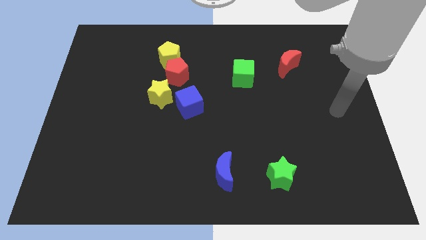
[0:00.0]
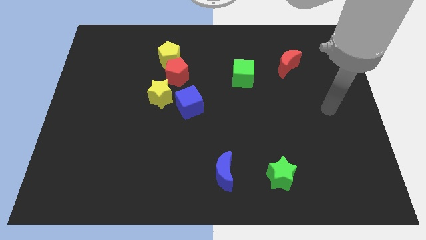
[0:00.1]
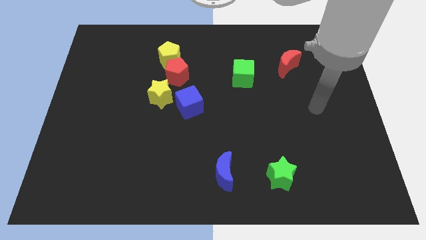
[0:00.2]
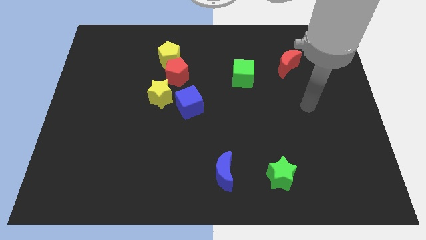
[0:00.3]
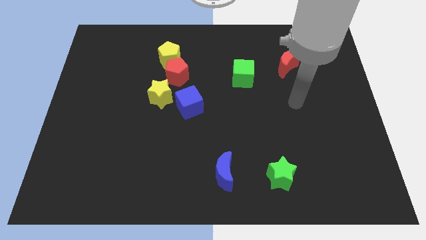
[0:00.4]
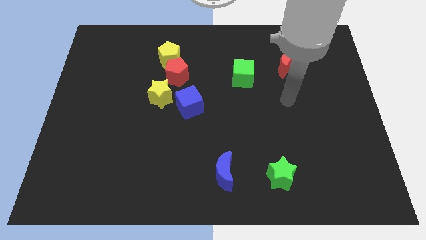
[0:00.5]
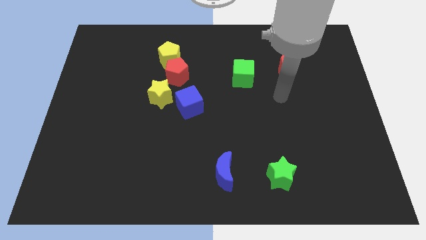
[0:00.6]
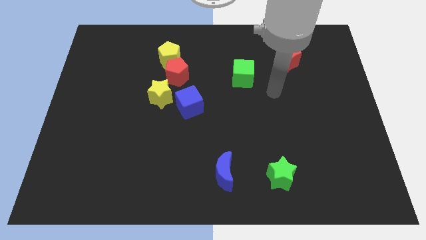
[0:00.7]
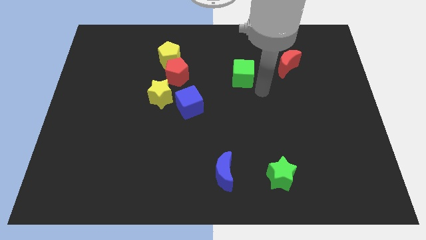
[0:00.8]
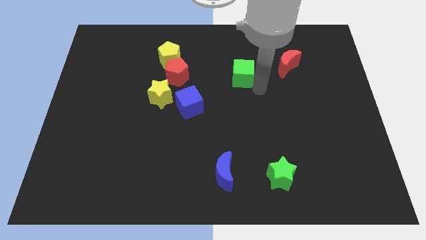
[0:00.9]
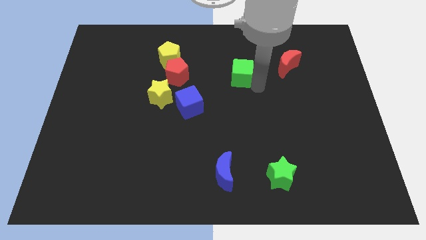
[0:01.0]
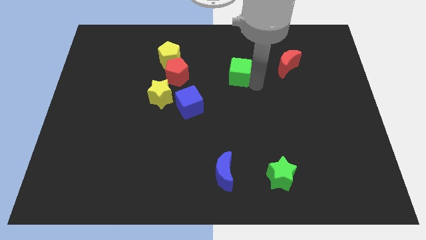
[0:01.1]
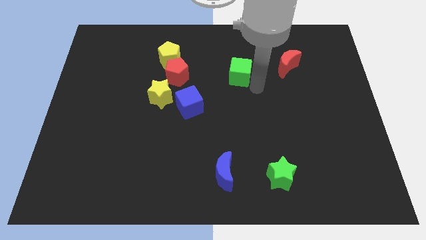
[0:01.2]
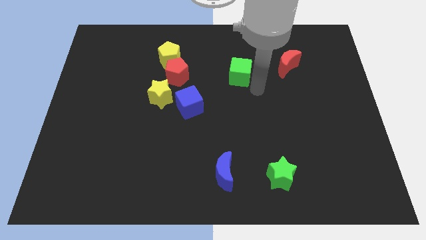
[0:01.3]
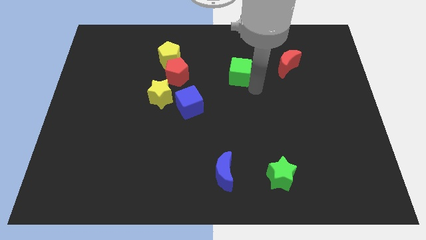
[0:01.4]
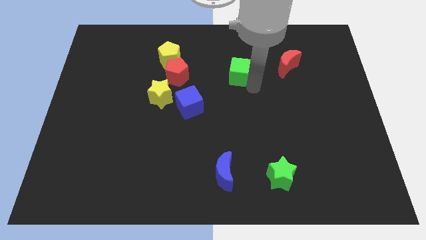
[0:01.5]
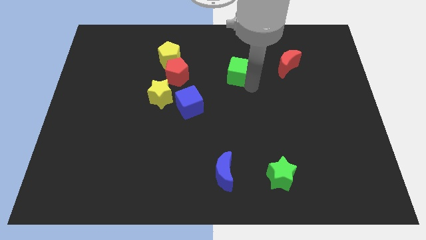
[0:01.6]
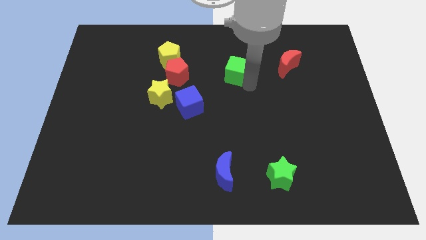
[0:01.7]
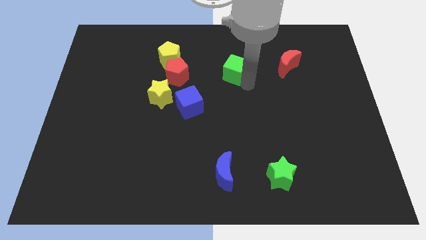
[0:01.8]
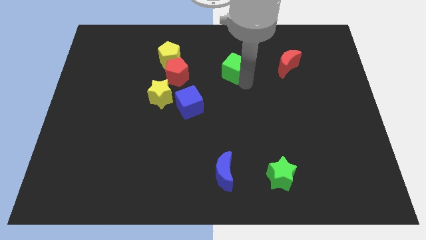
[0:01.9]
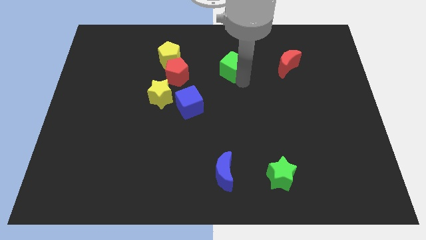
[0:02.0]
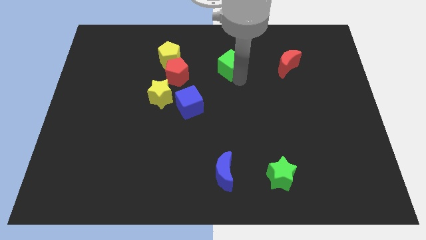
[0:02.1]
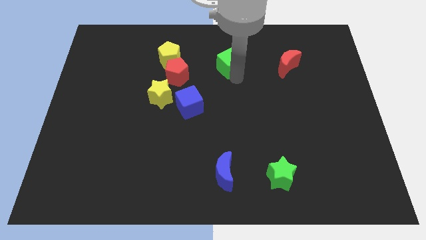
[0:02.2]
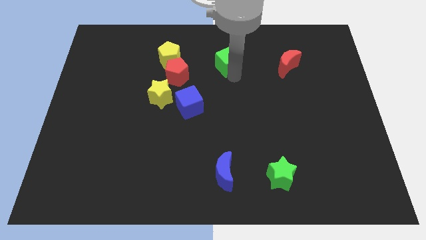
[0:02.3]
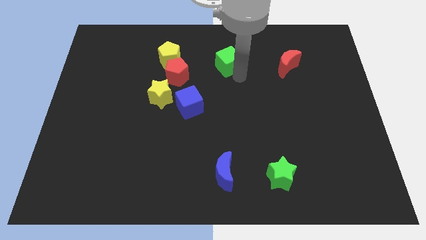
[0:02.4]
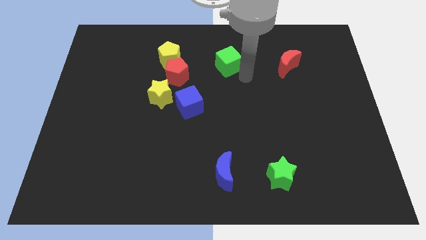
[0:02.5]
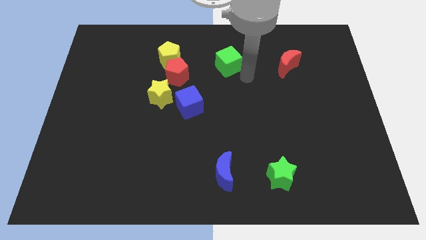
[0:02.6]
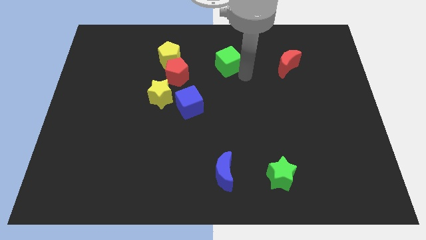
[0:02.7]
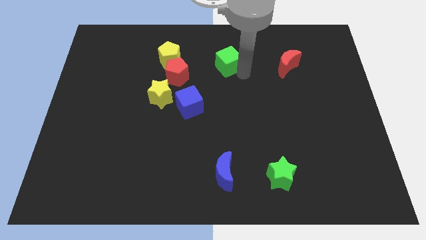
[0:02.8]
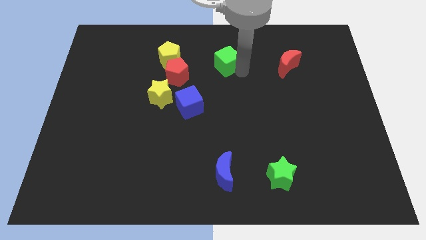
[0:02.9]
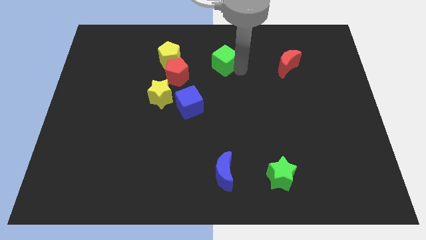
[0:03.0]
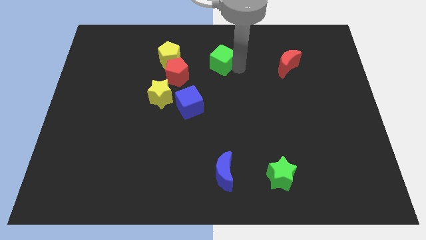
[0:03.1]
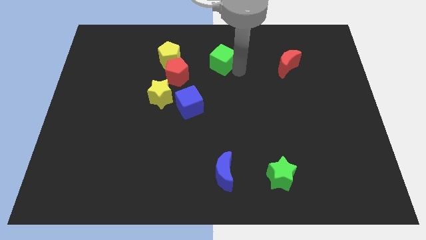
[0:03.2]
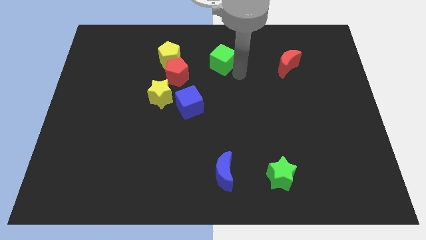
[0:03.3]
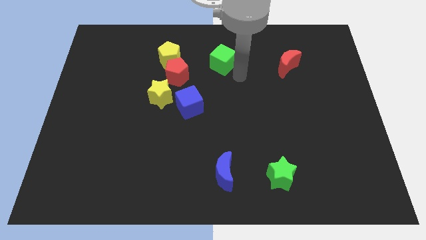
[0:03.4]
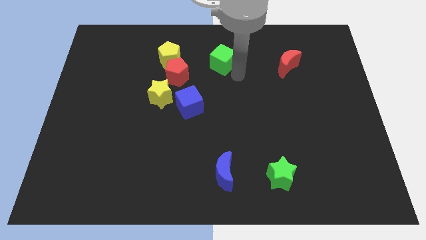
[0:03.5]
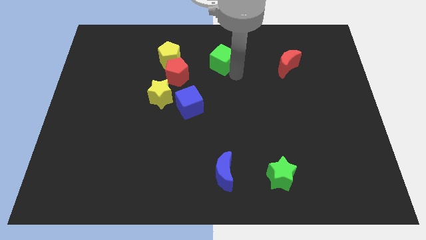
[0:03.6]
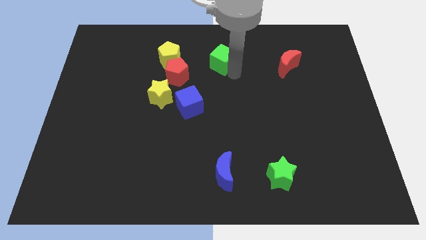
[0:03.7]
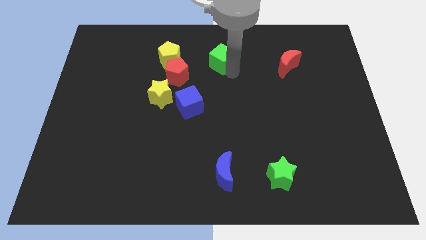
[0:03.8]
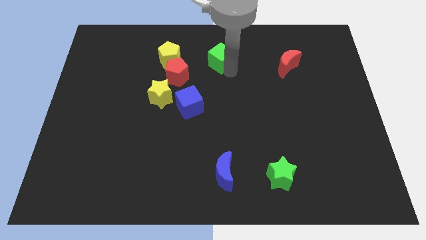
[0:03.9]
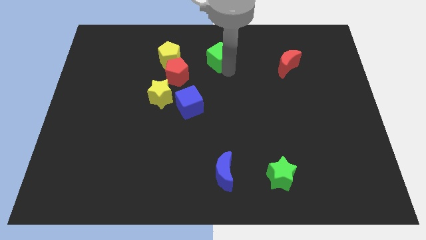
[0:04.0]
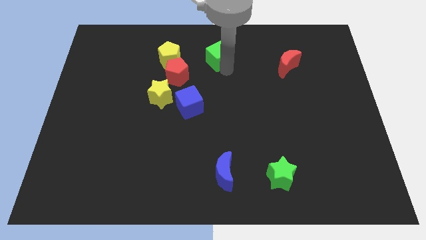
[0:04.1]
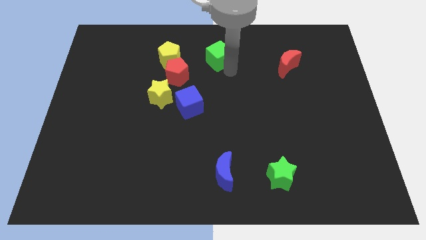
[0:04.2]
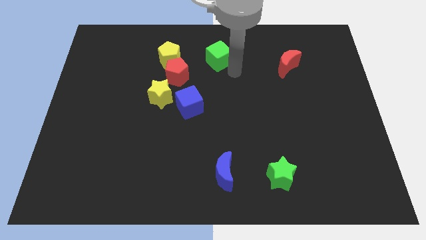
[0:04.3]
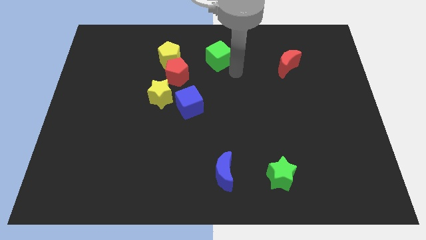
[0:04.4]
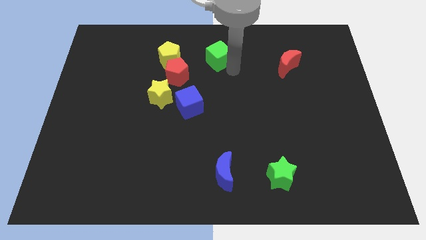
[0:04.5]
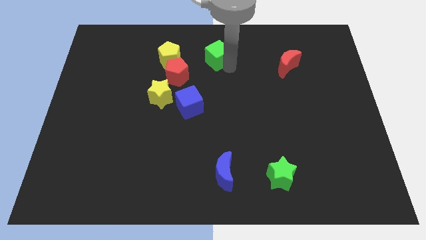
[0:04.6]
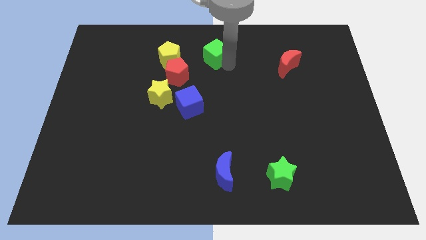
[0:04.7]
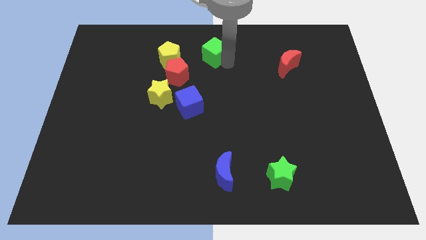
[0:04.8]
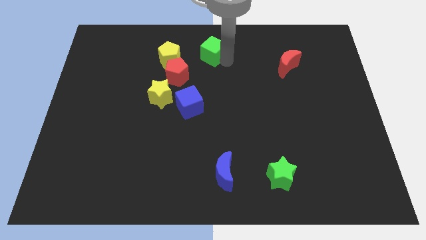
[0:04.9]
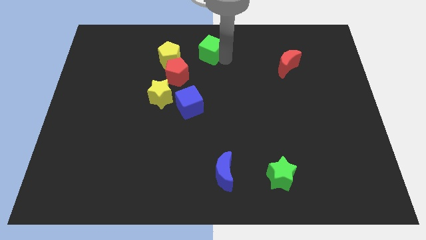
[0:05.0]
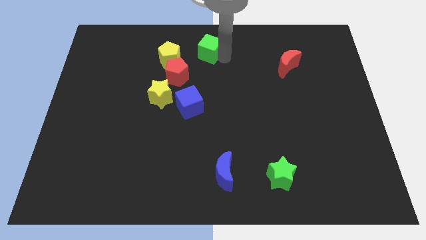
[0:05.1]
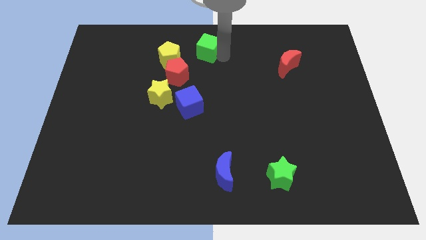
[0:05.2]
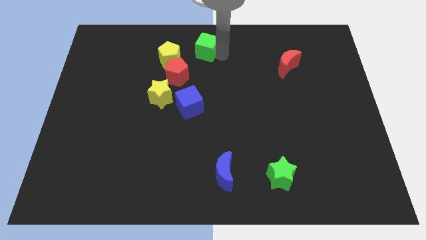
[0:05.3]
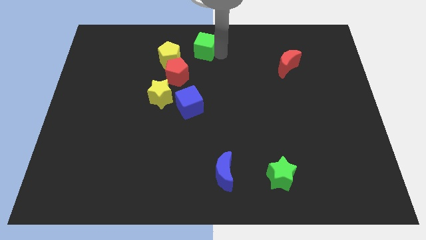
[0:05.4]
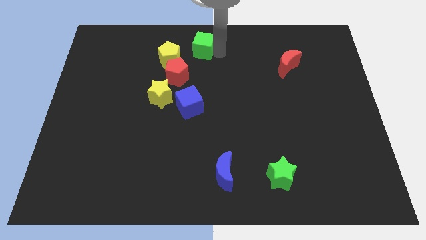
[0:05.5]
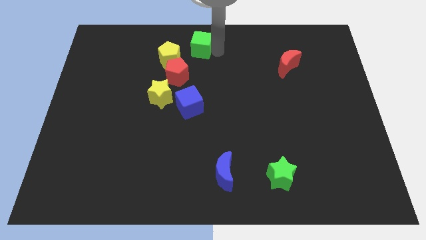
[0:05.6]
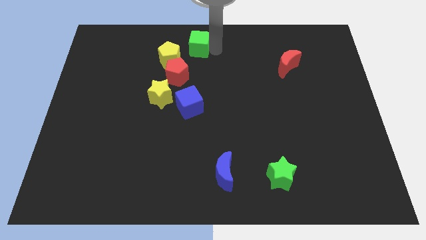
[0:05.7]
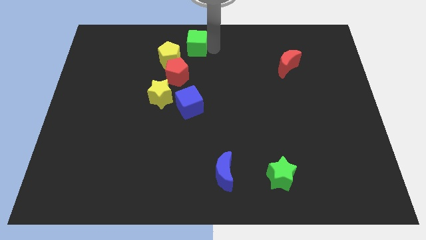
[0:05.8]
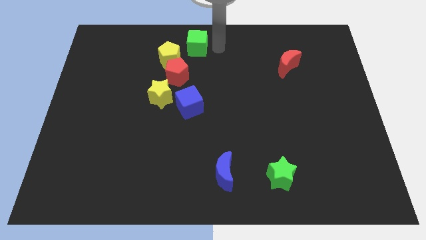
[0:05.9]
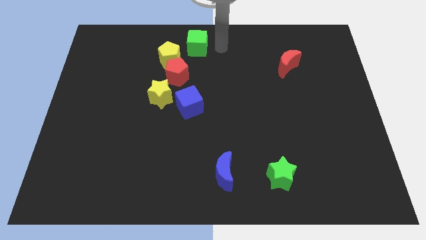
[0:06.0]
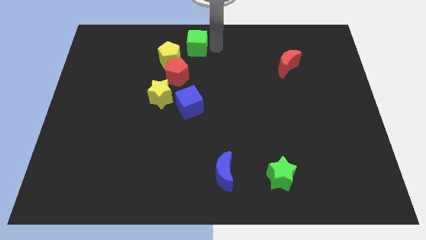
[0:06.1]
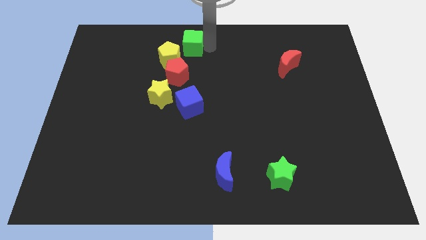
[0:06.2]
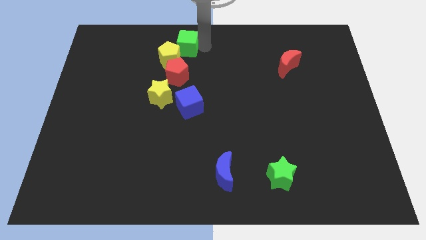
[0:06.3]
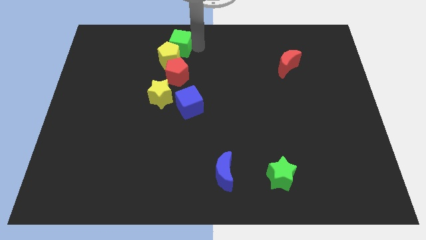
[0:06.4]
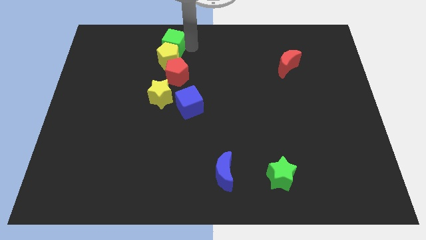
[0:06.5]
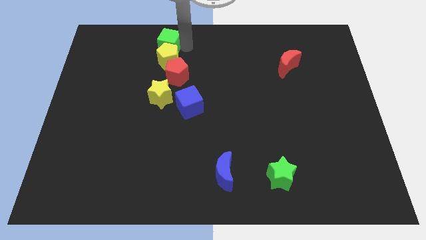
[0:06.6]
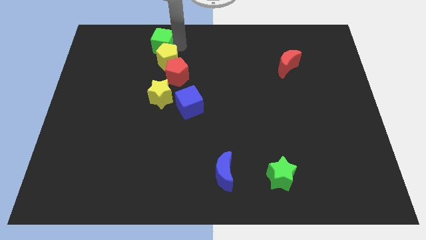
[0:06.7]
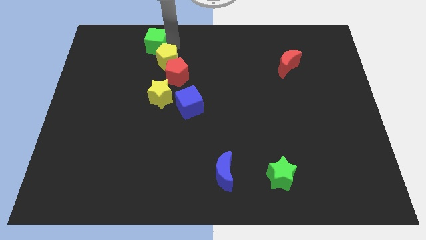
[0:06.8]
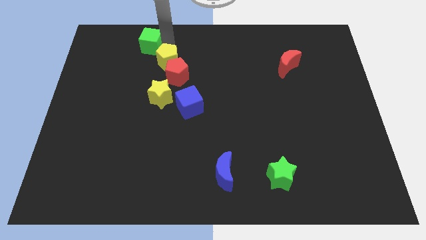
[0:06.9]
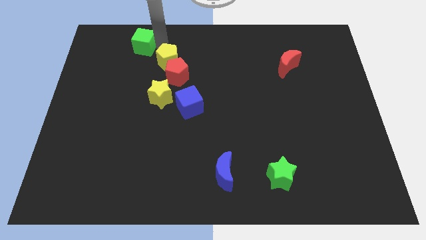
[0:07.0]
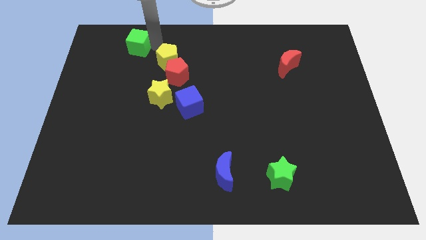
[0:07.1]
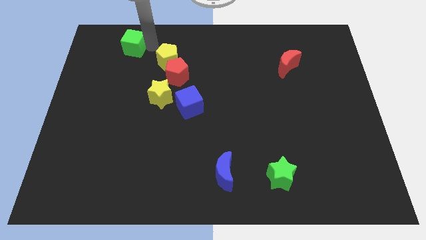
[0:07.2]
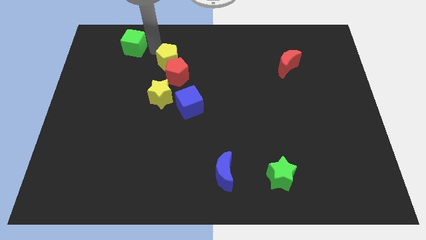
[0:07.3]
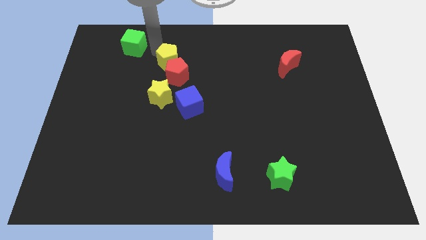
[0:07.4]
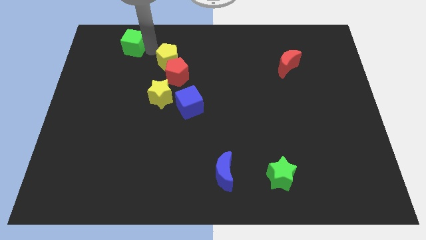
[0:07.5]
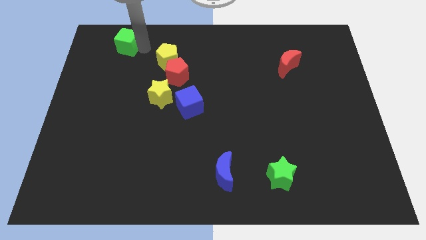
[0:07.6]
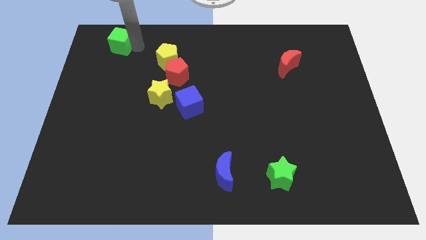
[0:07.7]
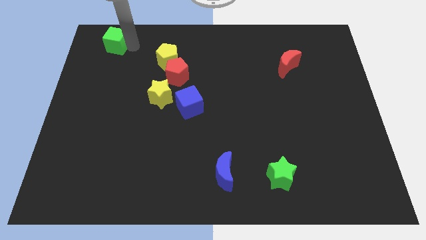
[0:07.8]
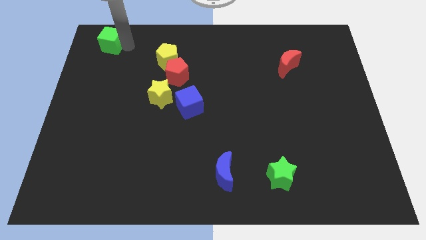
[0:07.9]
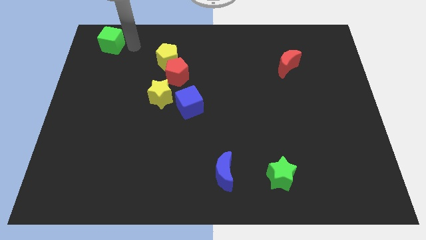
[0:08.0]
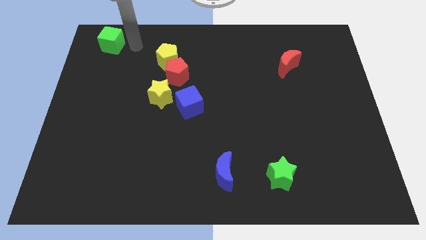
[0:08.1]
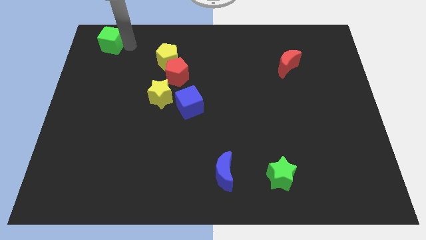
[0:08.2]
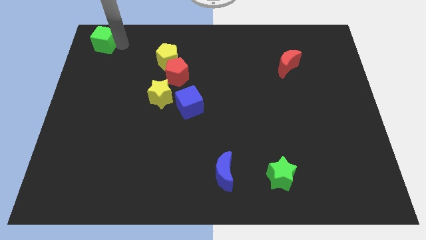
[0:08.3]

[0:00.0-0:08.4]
put the green cube to the top left corner
